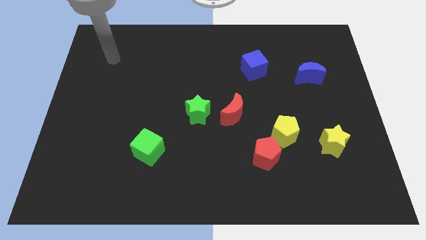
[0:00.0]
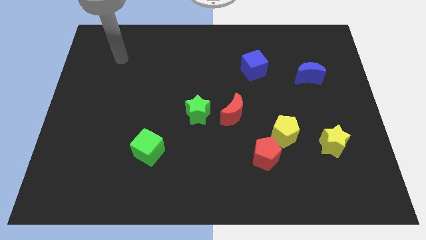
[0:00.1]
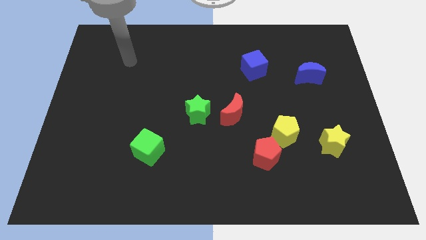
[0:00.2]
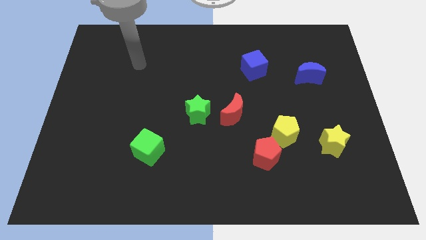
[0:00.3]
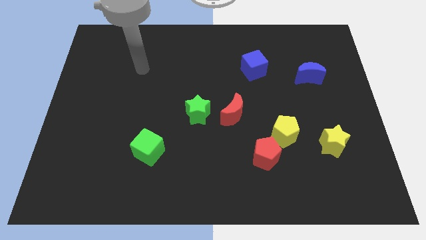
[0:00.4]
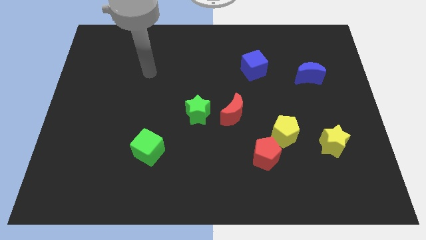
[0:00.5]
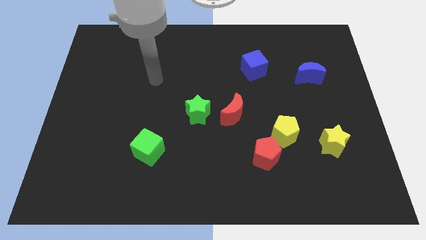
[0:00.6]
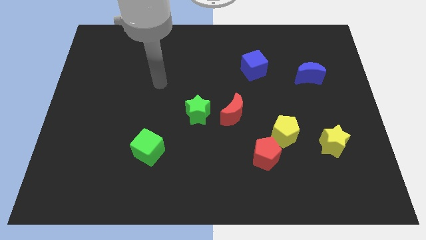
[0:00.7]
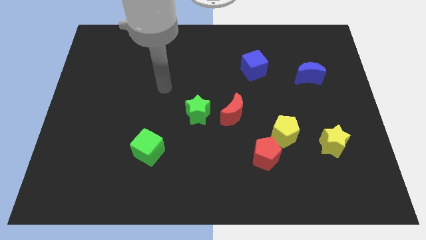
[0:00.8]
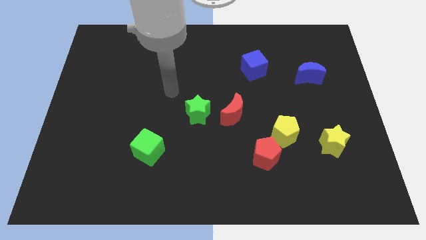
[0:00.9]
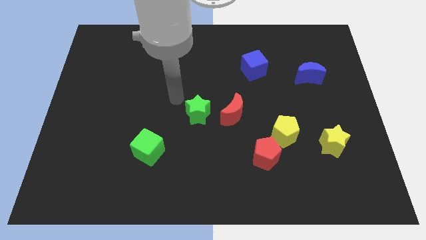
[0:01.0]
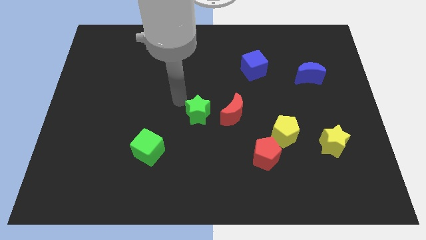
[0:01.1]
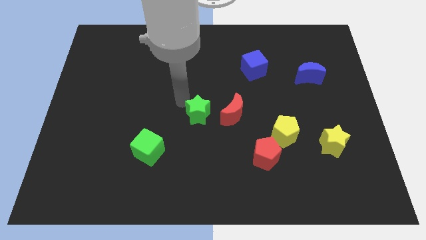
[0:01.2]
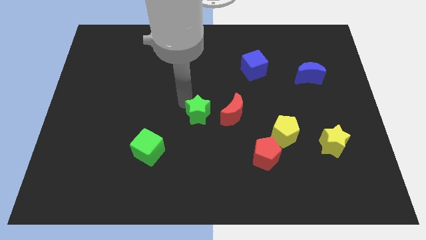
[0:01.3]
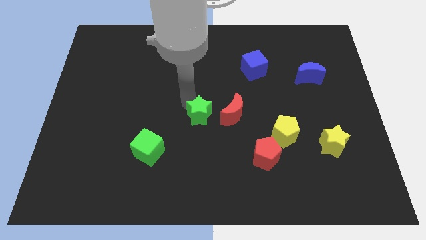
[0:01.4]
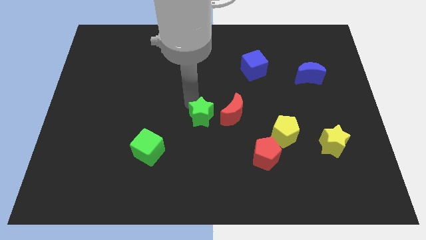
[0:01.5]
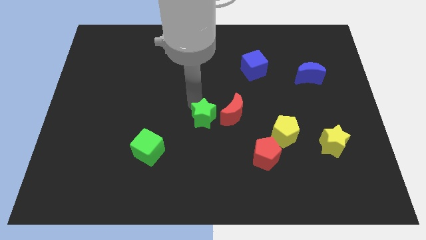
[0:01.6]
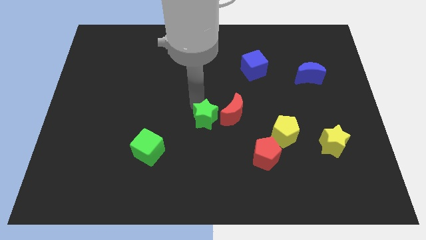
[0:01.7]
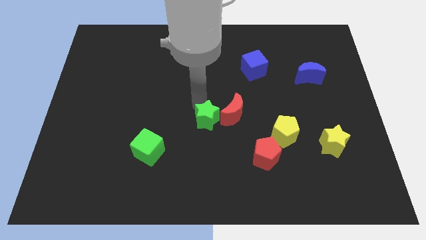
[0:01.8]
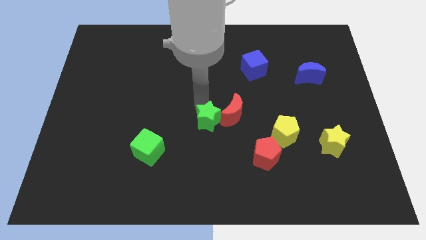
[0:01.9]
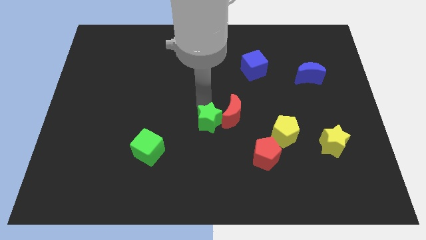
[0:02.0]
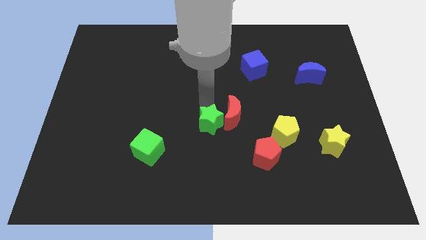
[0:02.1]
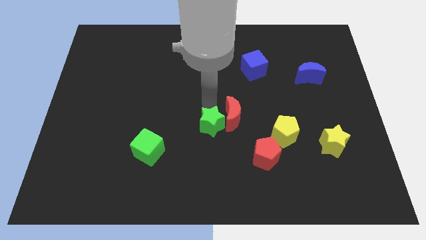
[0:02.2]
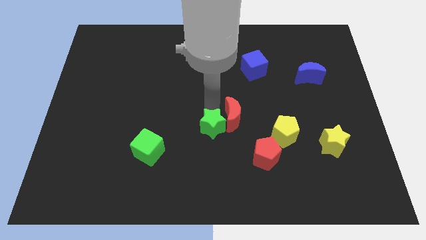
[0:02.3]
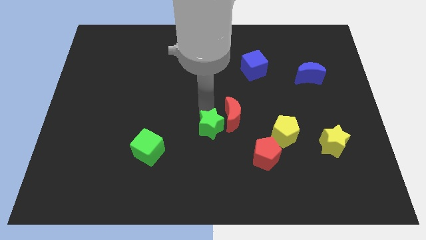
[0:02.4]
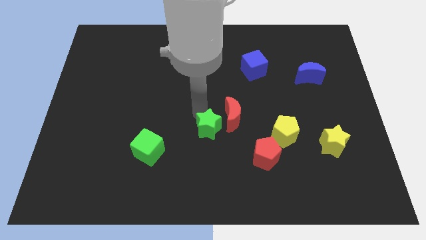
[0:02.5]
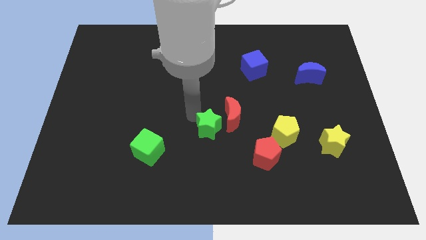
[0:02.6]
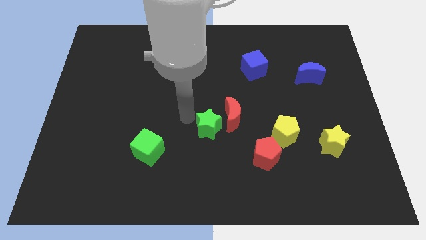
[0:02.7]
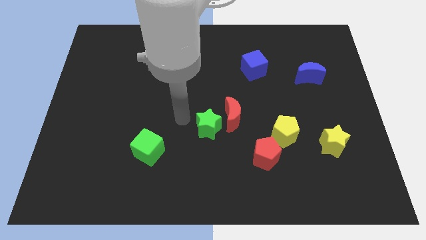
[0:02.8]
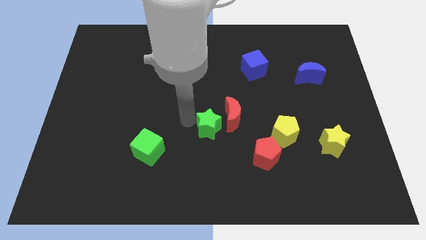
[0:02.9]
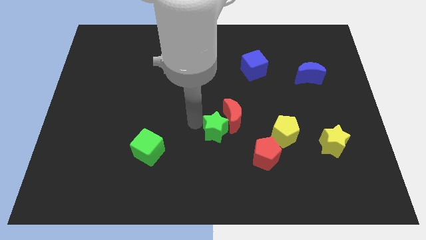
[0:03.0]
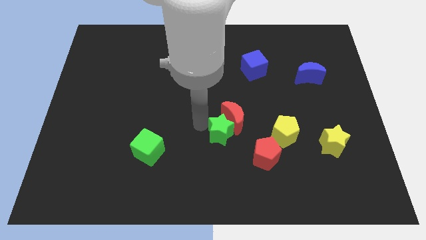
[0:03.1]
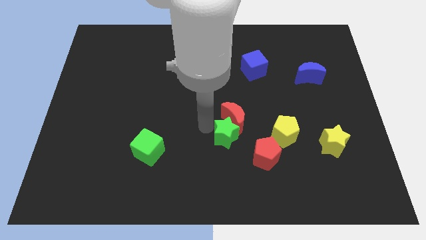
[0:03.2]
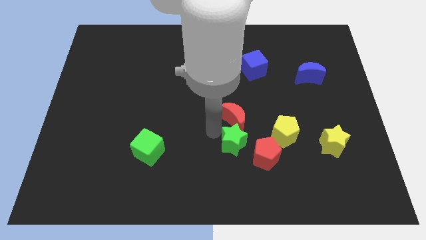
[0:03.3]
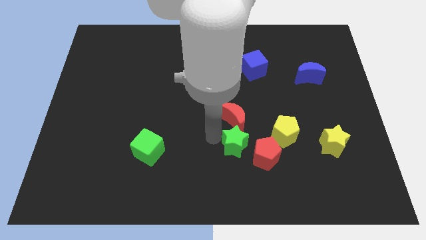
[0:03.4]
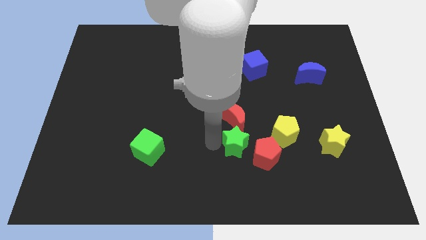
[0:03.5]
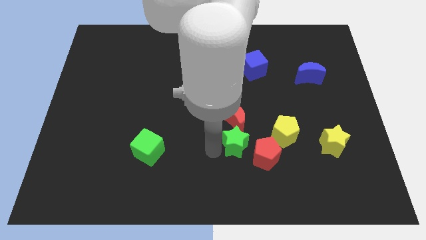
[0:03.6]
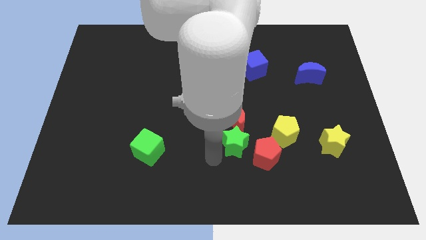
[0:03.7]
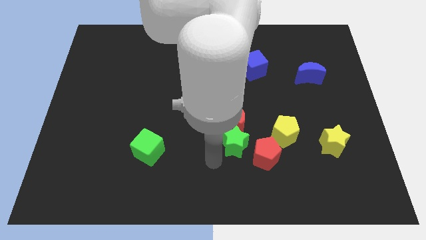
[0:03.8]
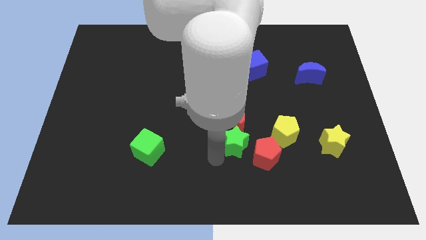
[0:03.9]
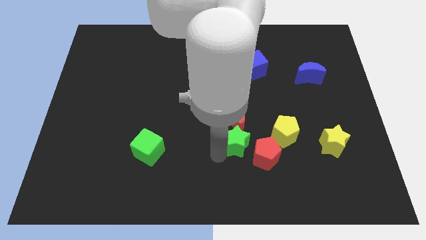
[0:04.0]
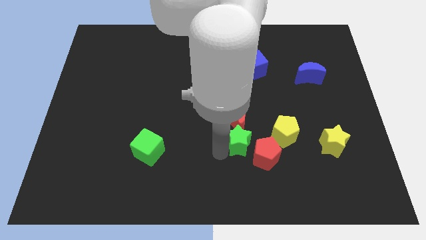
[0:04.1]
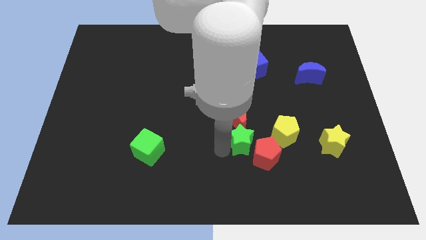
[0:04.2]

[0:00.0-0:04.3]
slide the green star slightly right

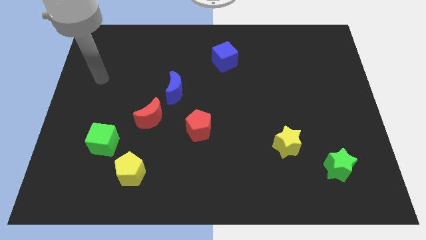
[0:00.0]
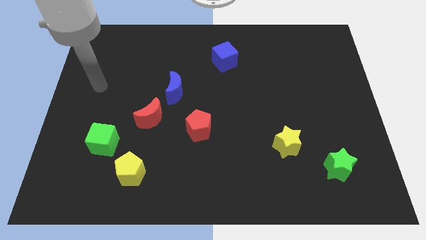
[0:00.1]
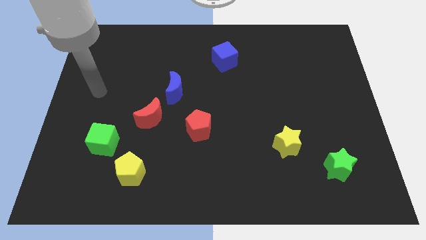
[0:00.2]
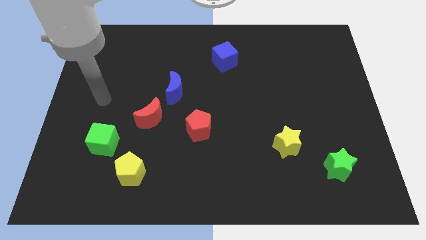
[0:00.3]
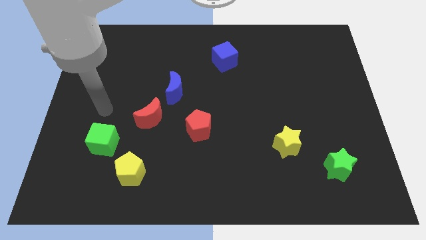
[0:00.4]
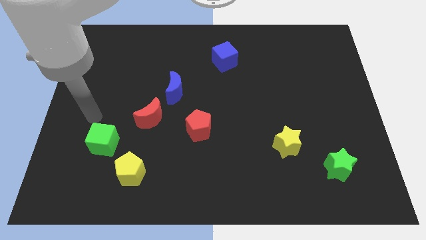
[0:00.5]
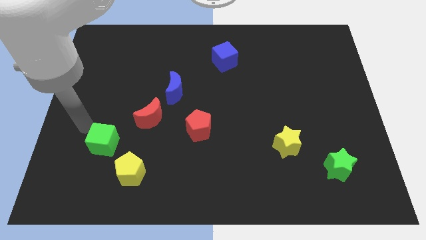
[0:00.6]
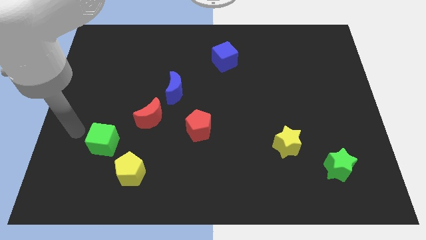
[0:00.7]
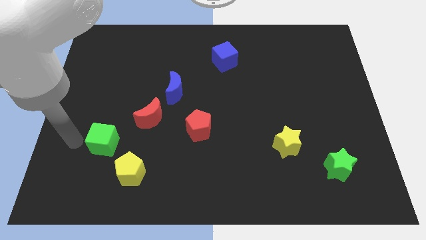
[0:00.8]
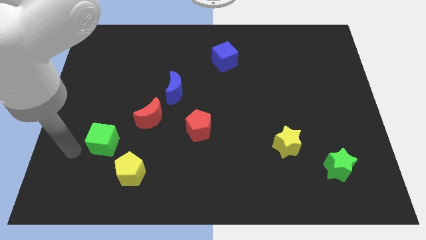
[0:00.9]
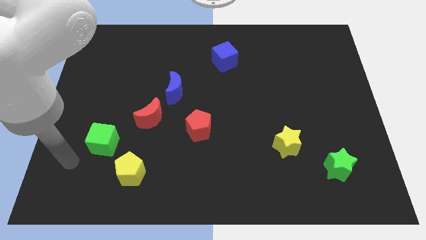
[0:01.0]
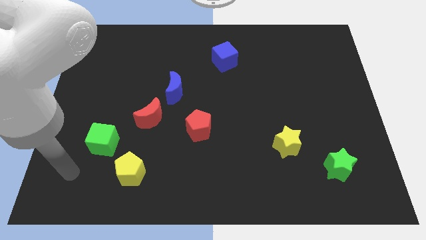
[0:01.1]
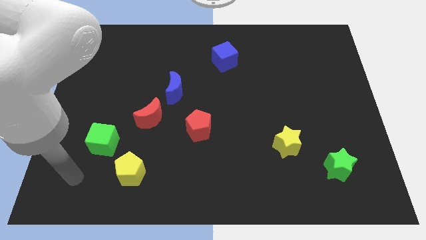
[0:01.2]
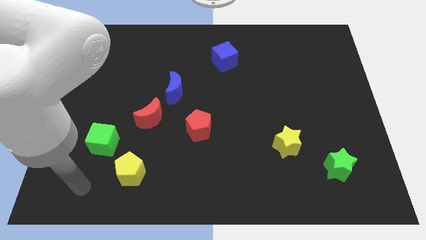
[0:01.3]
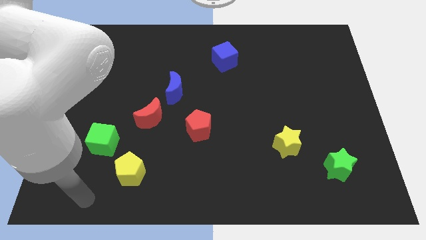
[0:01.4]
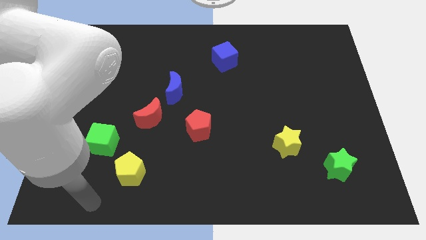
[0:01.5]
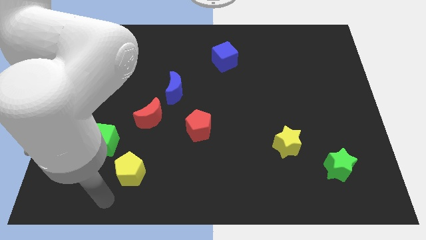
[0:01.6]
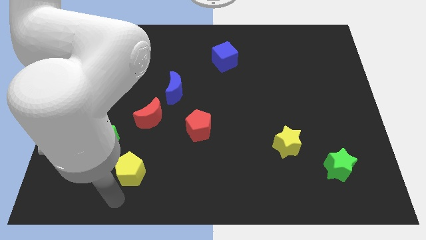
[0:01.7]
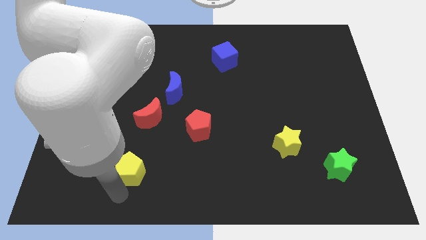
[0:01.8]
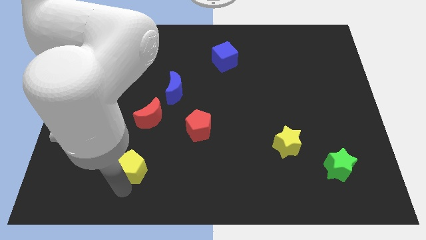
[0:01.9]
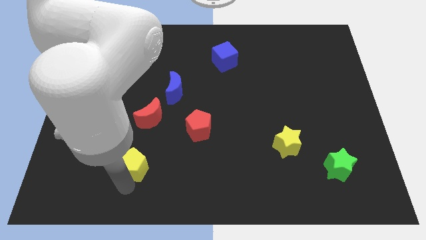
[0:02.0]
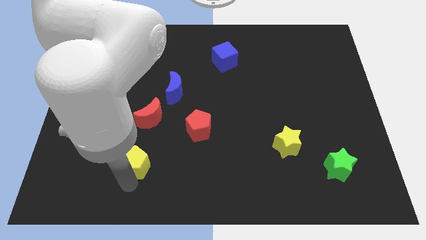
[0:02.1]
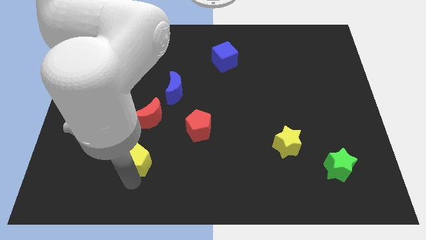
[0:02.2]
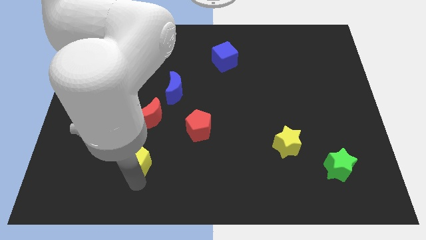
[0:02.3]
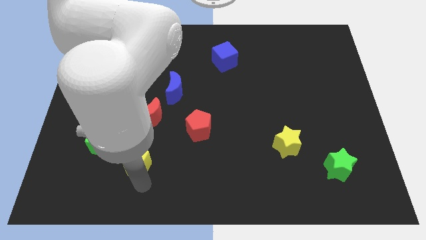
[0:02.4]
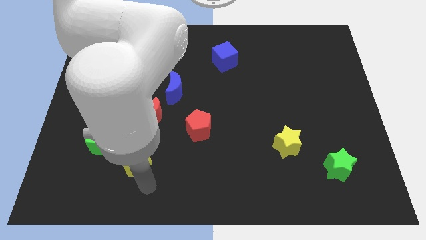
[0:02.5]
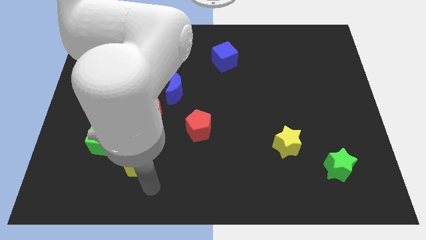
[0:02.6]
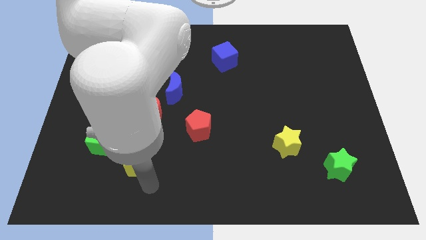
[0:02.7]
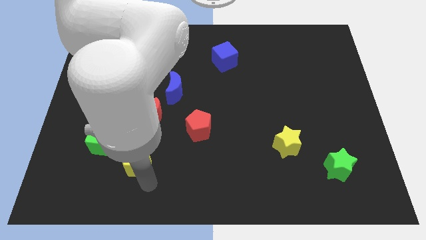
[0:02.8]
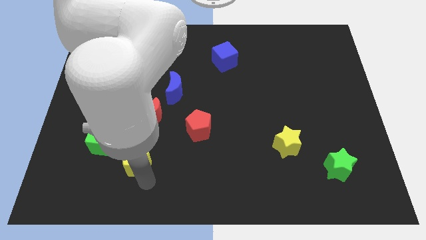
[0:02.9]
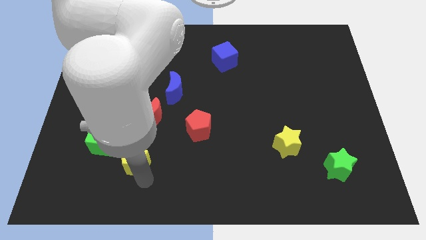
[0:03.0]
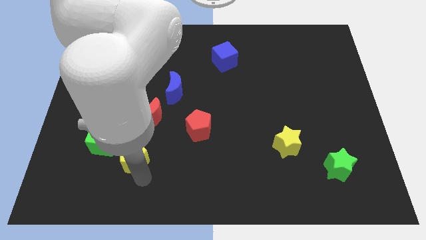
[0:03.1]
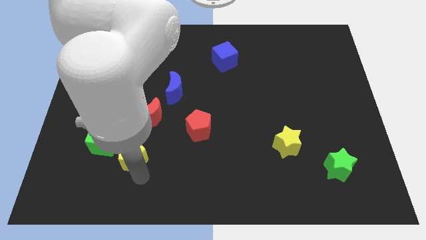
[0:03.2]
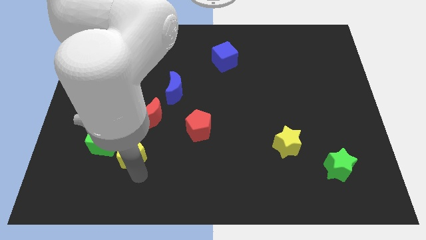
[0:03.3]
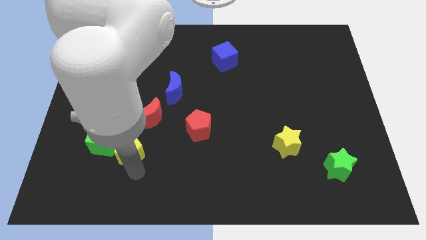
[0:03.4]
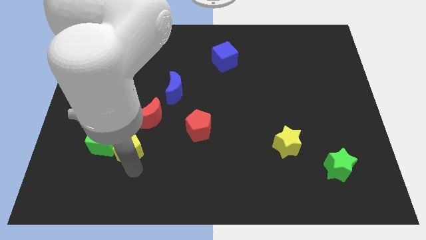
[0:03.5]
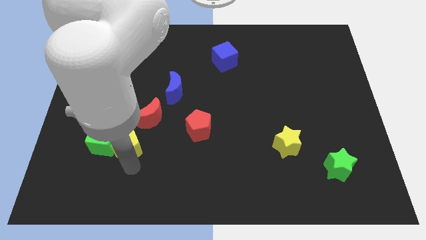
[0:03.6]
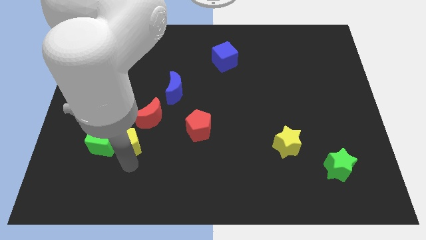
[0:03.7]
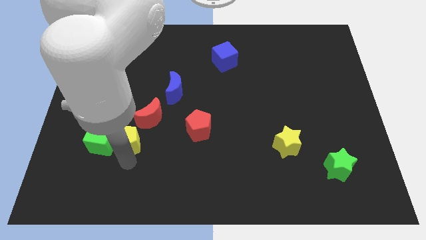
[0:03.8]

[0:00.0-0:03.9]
slide the yellow pentagon upwards somewhat
